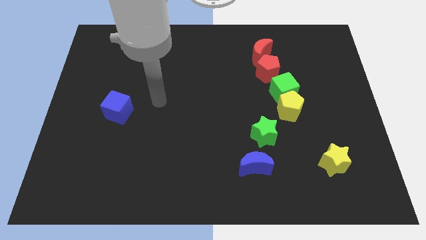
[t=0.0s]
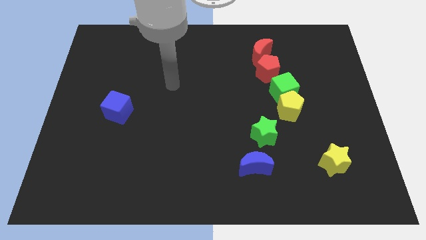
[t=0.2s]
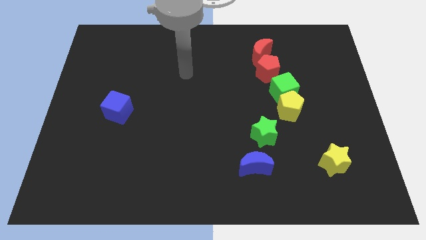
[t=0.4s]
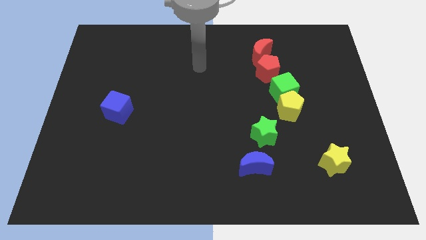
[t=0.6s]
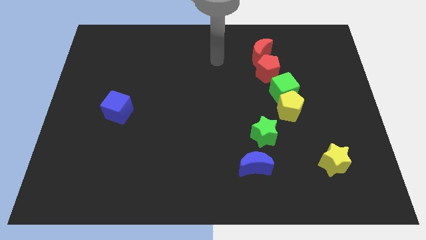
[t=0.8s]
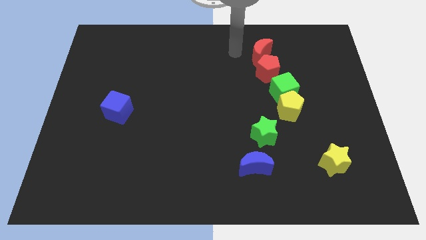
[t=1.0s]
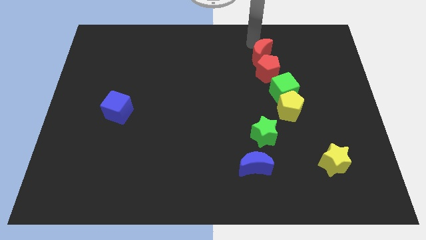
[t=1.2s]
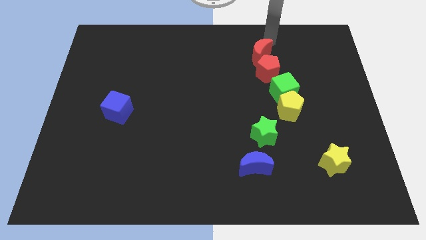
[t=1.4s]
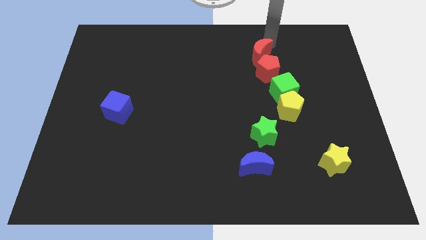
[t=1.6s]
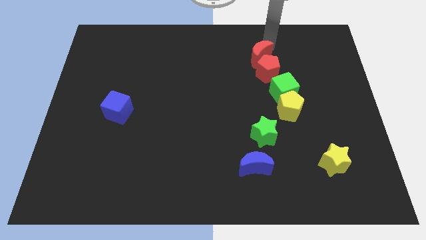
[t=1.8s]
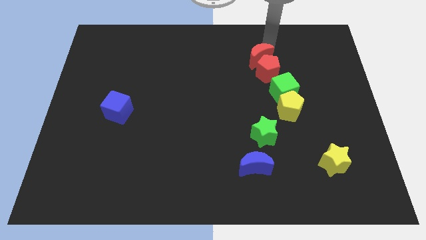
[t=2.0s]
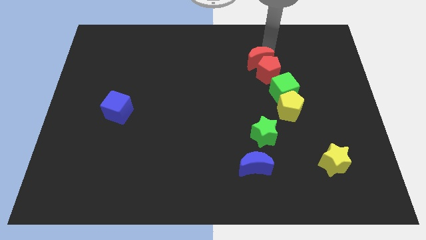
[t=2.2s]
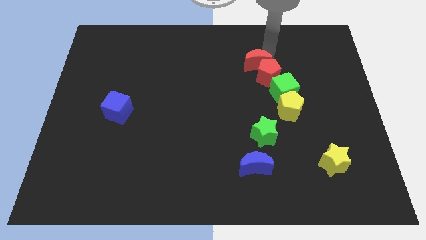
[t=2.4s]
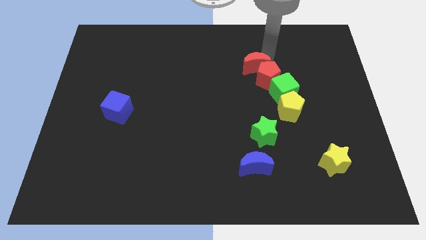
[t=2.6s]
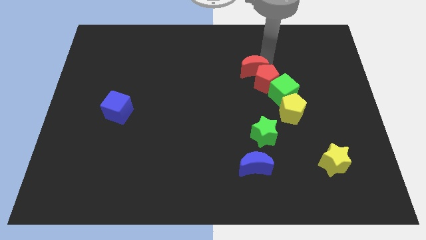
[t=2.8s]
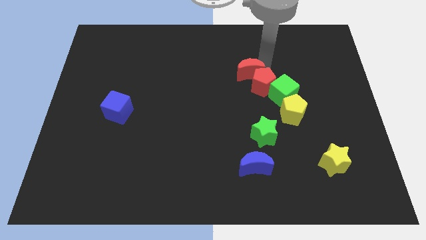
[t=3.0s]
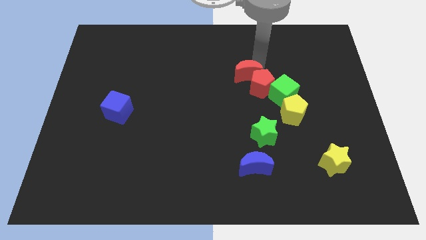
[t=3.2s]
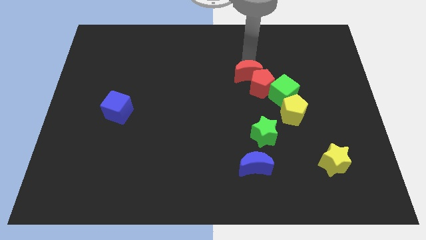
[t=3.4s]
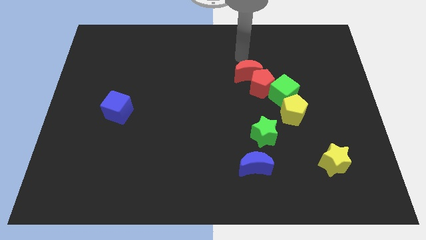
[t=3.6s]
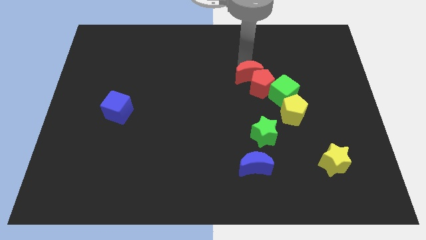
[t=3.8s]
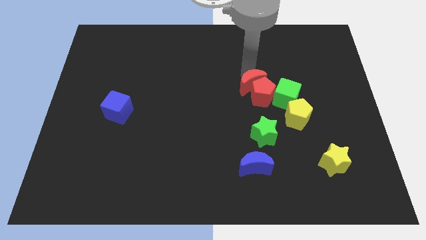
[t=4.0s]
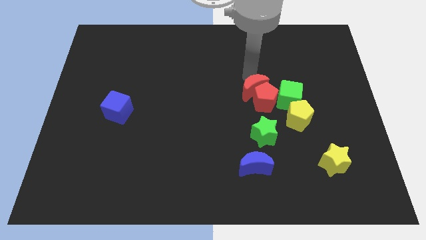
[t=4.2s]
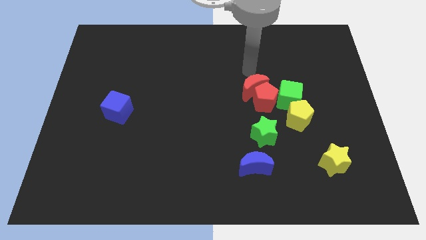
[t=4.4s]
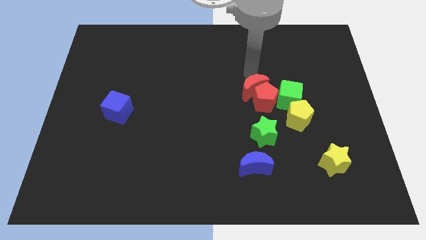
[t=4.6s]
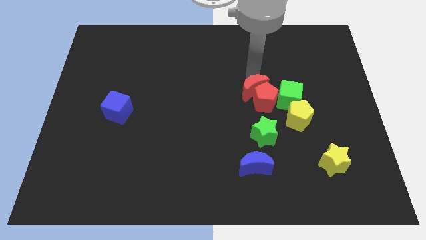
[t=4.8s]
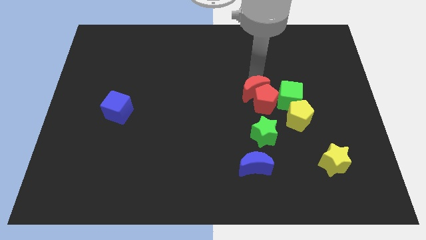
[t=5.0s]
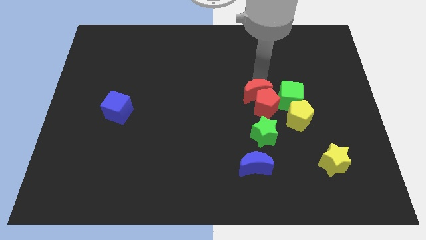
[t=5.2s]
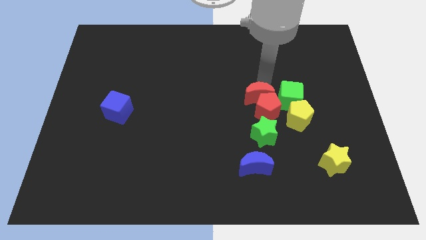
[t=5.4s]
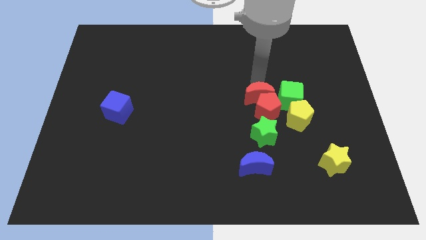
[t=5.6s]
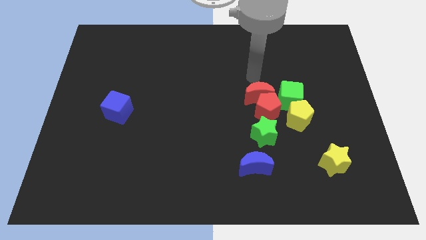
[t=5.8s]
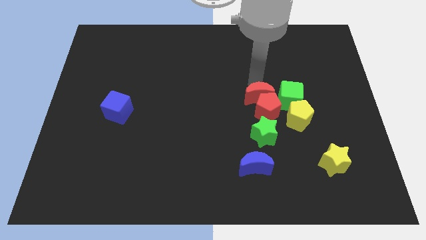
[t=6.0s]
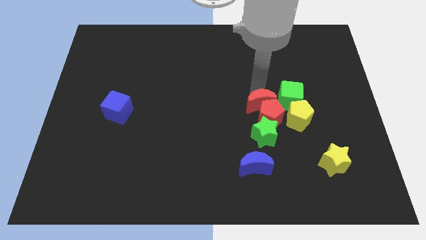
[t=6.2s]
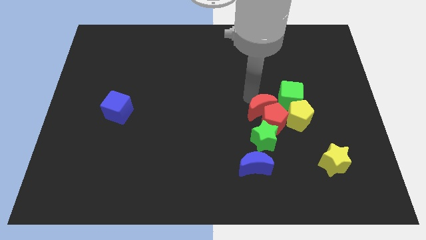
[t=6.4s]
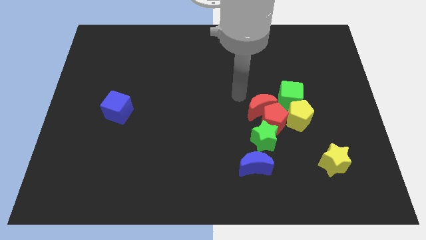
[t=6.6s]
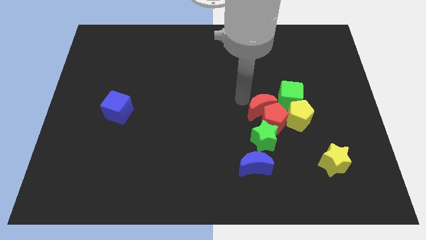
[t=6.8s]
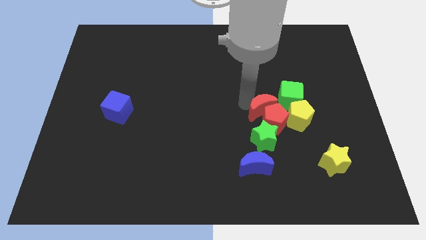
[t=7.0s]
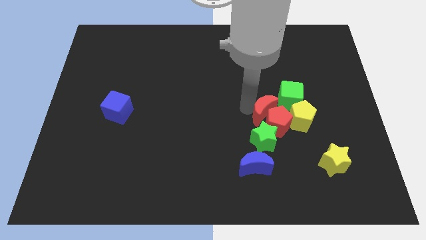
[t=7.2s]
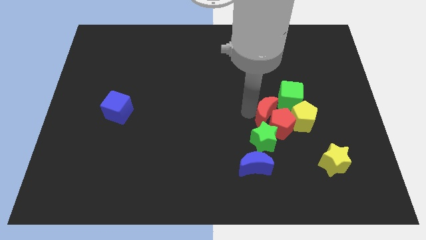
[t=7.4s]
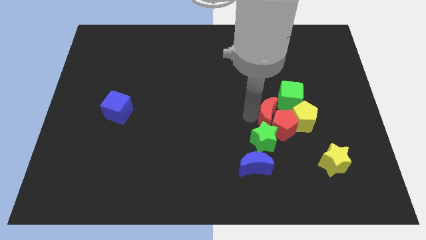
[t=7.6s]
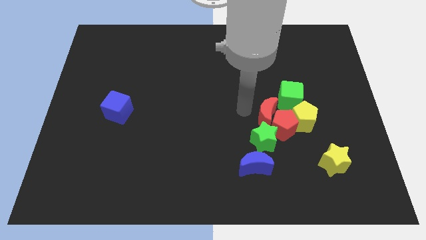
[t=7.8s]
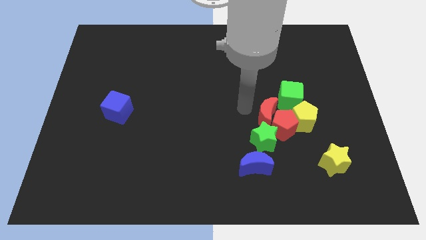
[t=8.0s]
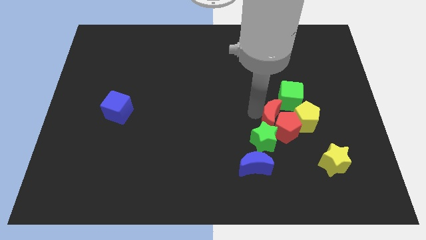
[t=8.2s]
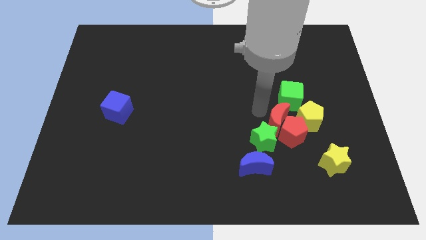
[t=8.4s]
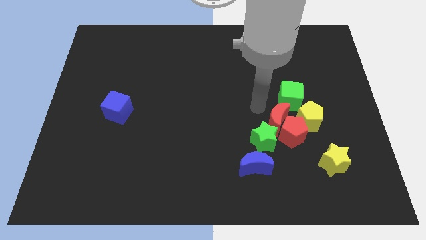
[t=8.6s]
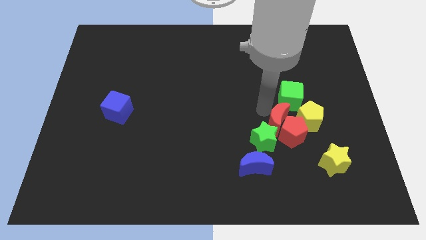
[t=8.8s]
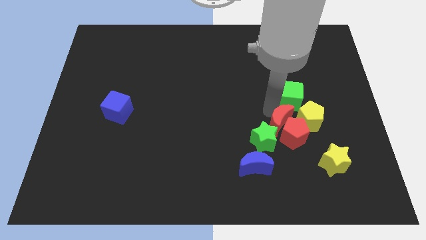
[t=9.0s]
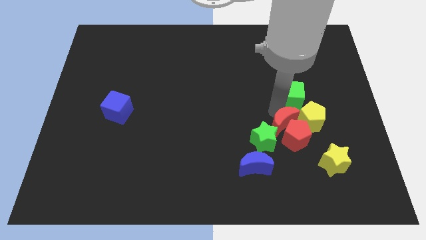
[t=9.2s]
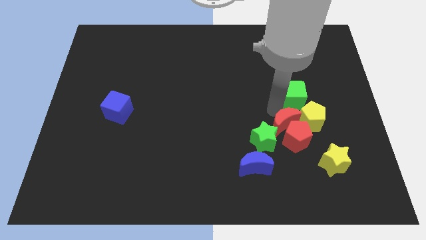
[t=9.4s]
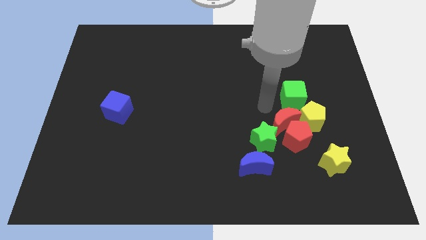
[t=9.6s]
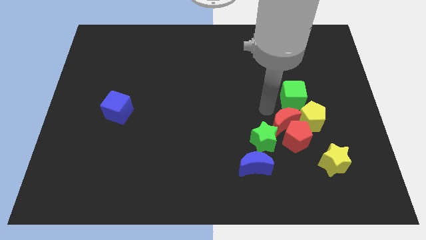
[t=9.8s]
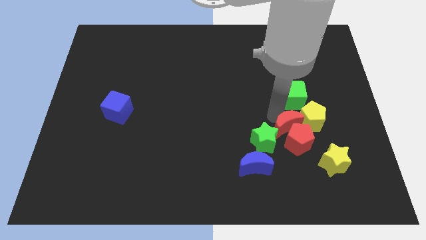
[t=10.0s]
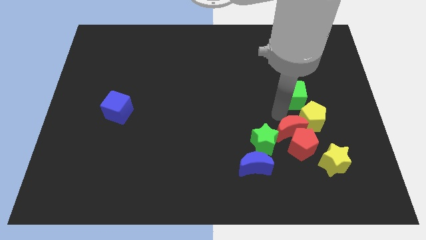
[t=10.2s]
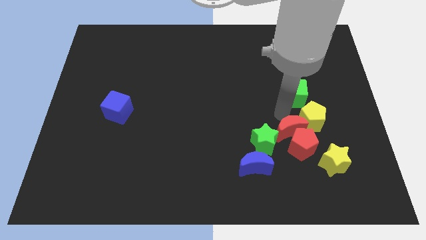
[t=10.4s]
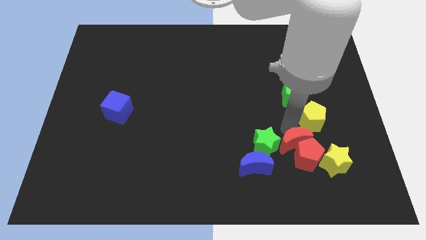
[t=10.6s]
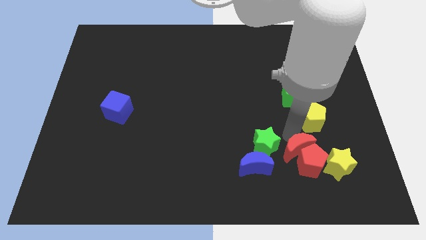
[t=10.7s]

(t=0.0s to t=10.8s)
push the red moon to the right of the blue moon

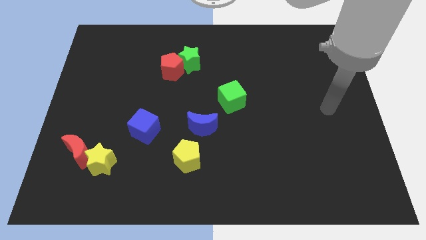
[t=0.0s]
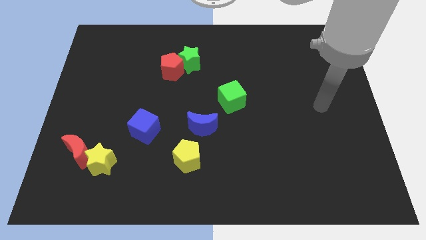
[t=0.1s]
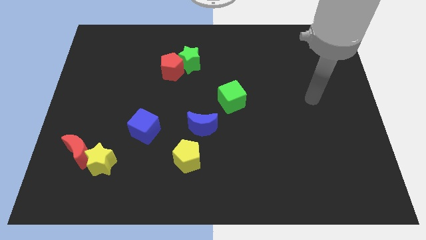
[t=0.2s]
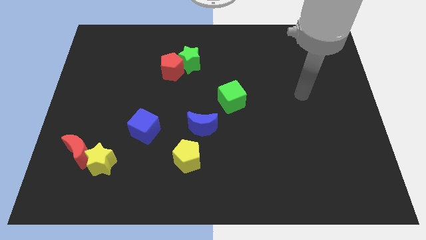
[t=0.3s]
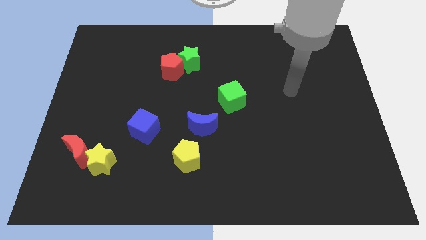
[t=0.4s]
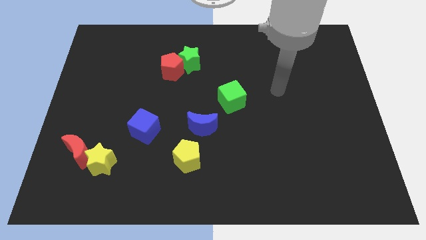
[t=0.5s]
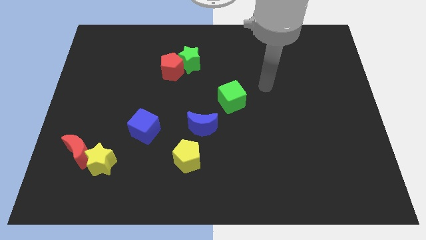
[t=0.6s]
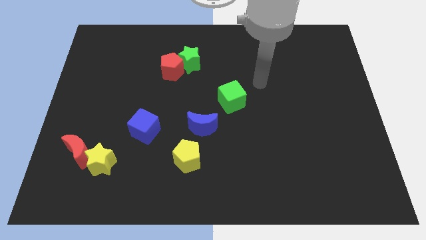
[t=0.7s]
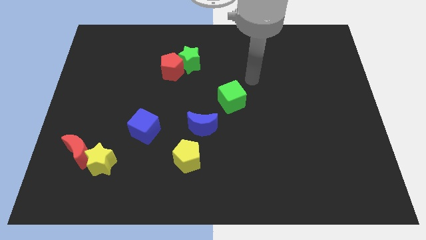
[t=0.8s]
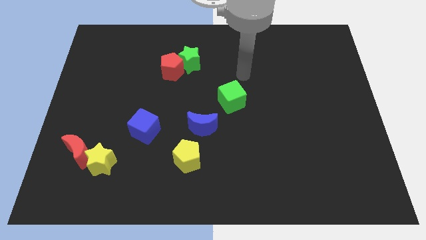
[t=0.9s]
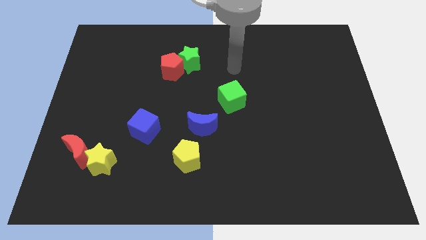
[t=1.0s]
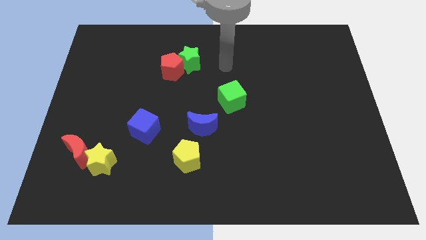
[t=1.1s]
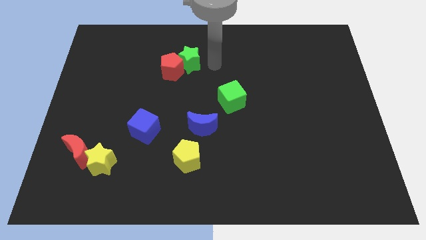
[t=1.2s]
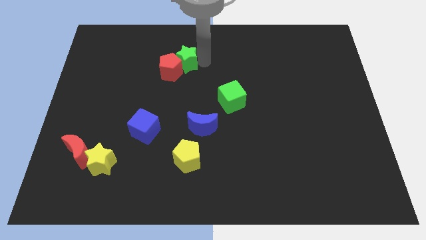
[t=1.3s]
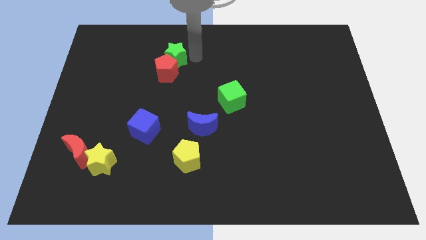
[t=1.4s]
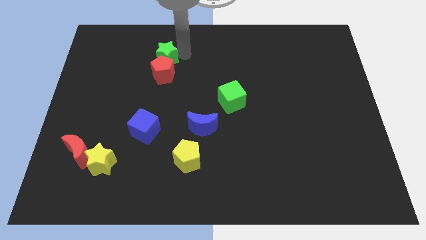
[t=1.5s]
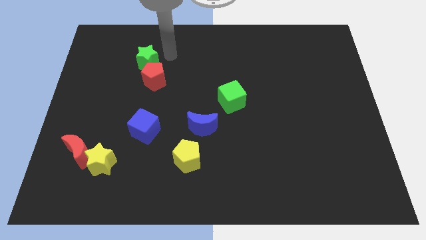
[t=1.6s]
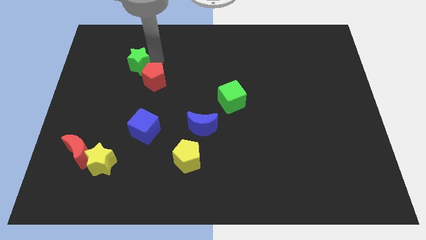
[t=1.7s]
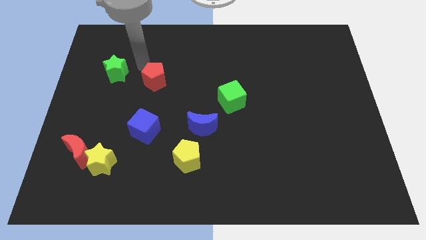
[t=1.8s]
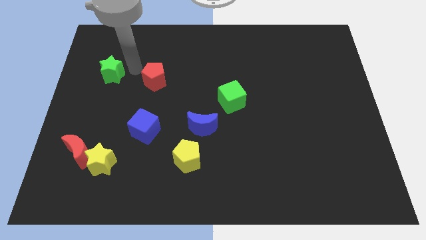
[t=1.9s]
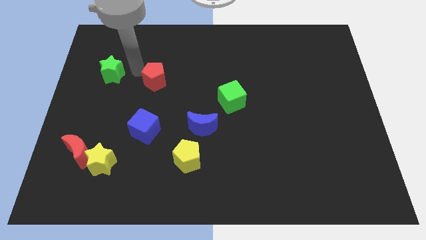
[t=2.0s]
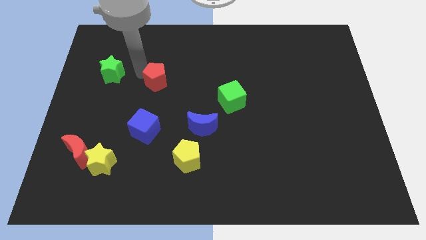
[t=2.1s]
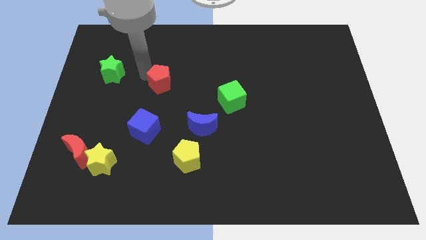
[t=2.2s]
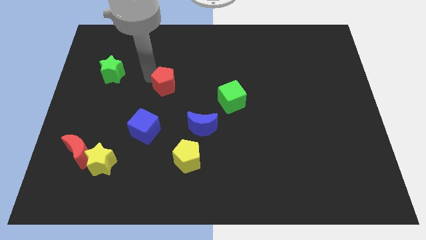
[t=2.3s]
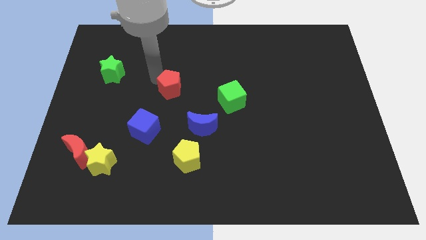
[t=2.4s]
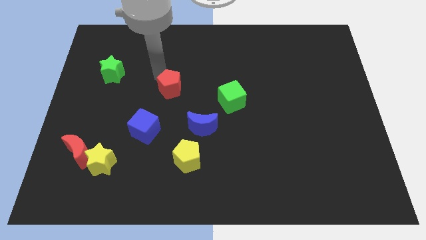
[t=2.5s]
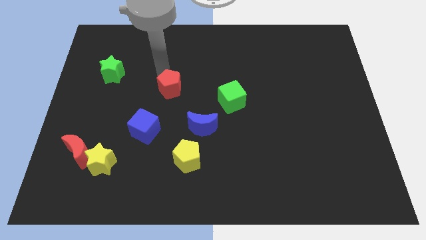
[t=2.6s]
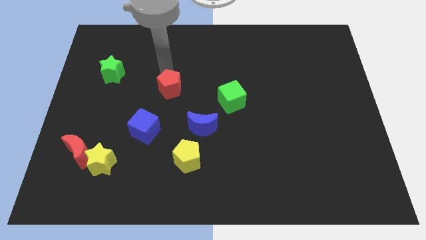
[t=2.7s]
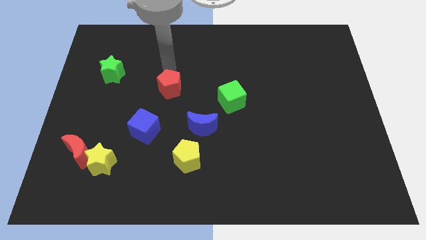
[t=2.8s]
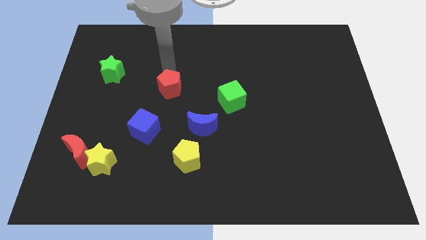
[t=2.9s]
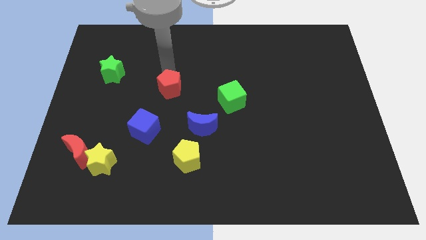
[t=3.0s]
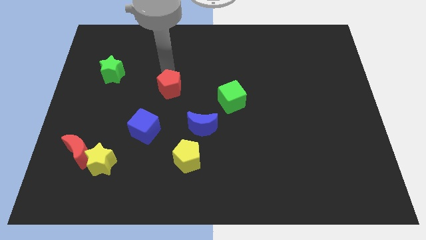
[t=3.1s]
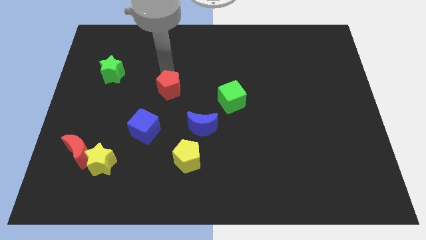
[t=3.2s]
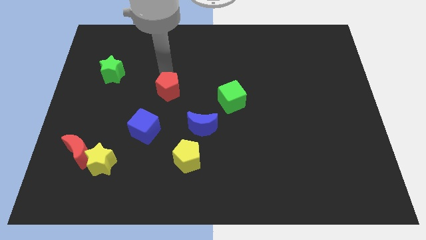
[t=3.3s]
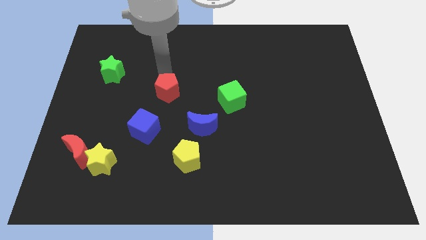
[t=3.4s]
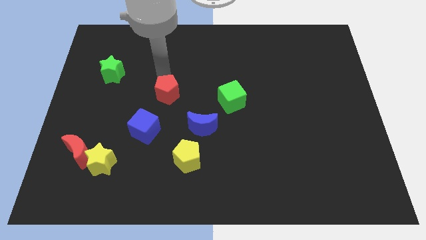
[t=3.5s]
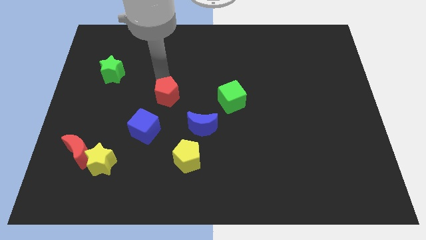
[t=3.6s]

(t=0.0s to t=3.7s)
move the red pentagon diagonally up and to the right of the blue cube
